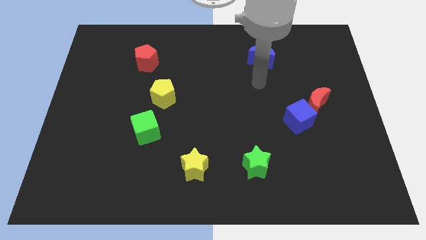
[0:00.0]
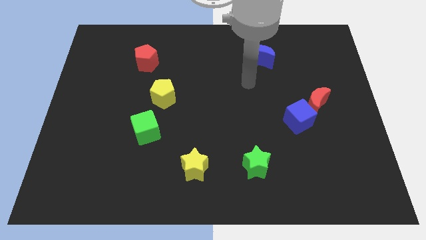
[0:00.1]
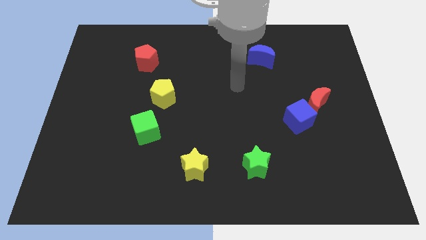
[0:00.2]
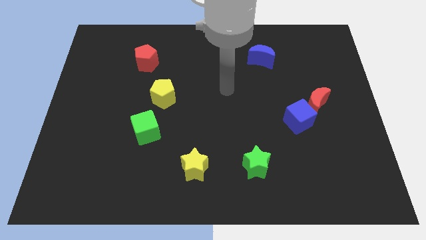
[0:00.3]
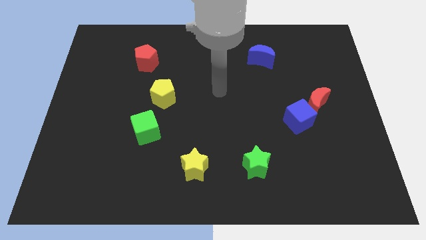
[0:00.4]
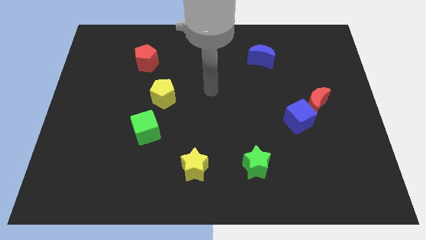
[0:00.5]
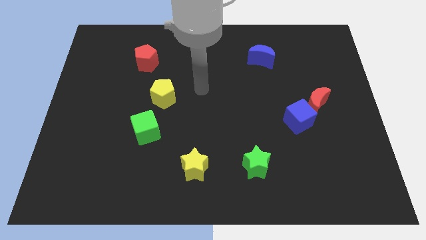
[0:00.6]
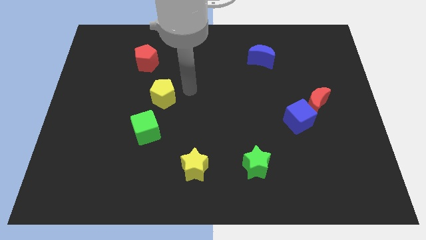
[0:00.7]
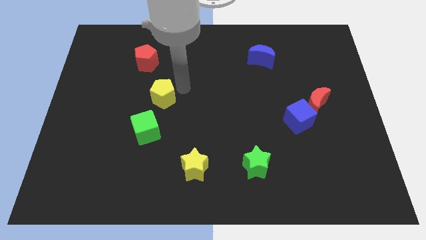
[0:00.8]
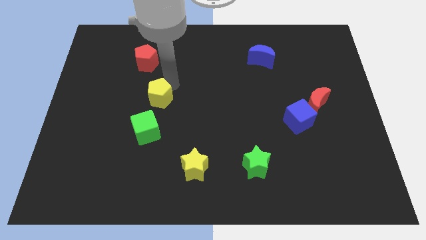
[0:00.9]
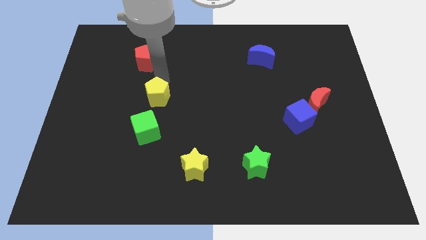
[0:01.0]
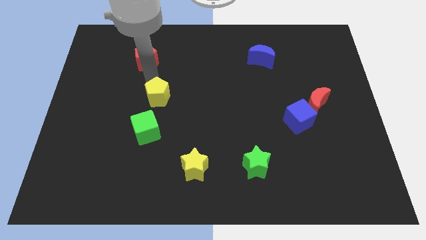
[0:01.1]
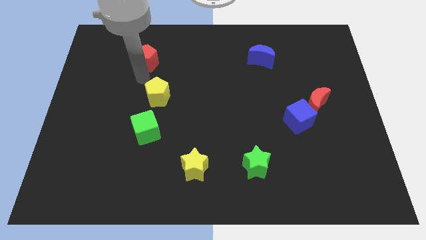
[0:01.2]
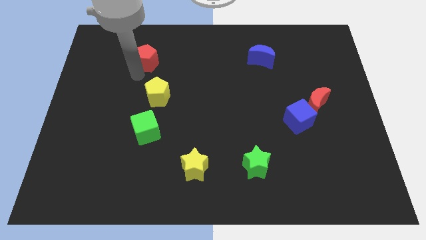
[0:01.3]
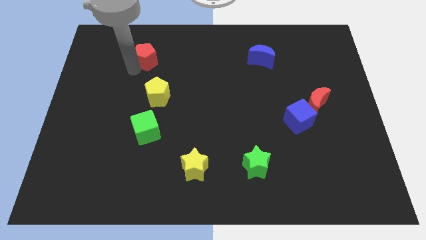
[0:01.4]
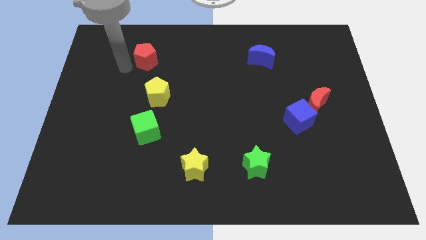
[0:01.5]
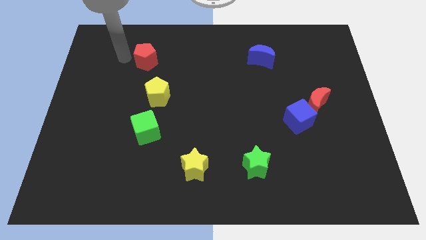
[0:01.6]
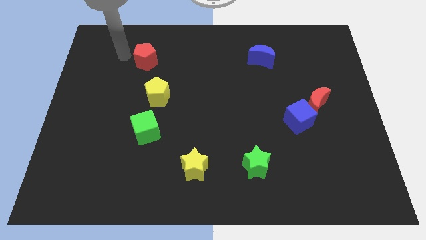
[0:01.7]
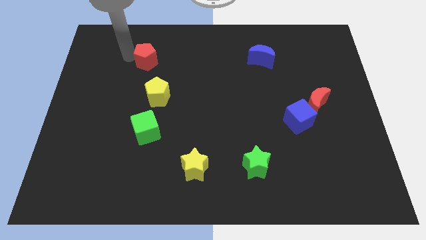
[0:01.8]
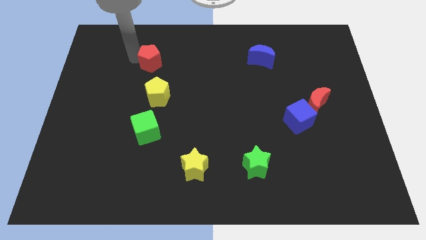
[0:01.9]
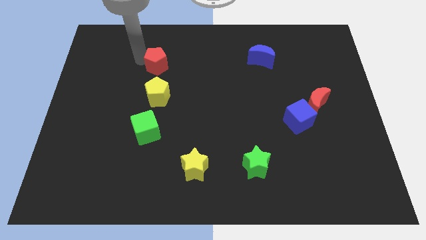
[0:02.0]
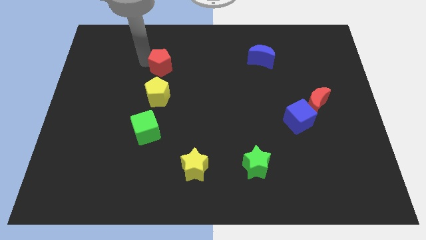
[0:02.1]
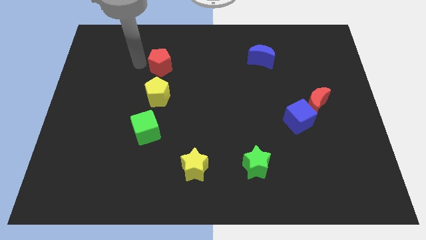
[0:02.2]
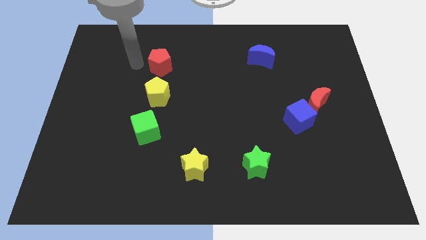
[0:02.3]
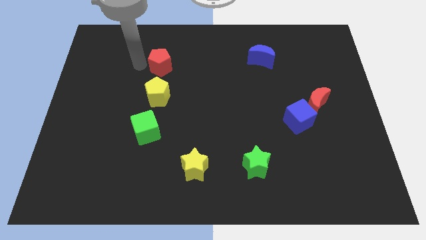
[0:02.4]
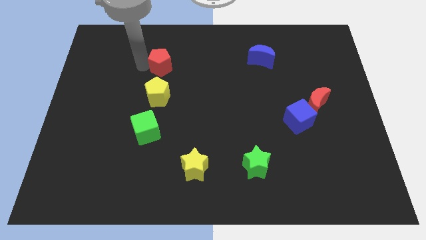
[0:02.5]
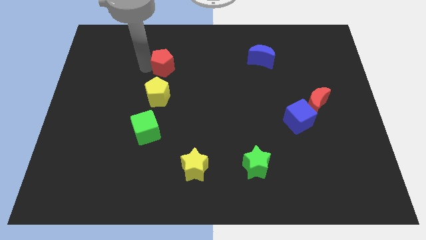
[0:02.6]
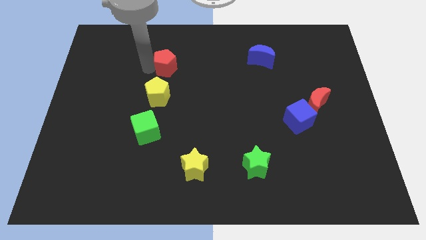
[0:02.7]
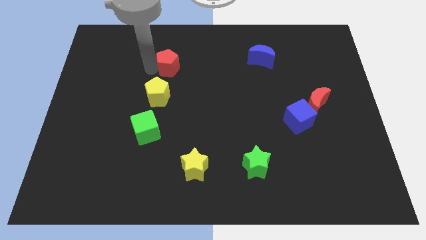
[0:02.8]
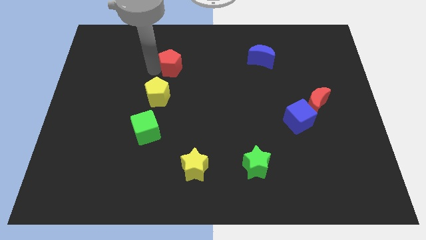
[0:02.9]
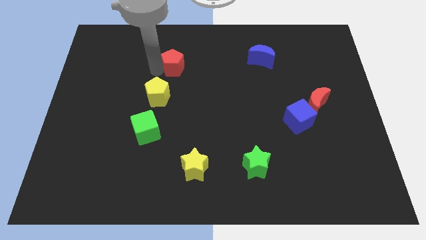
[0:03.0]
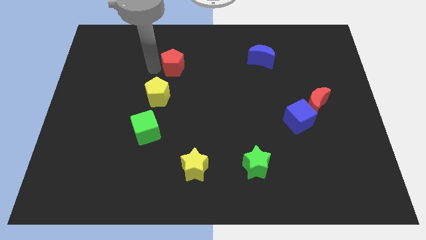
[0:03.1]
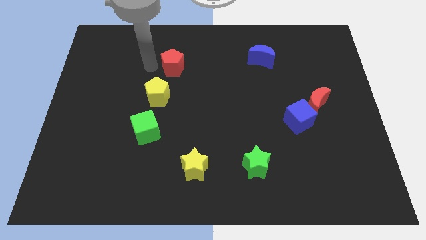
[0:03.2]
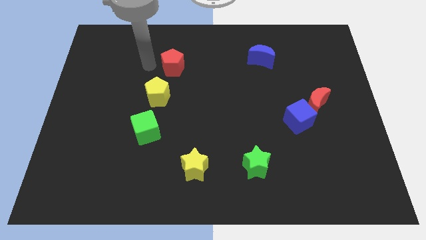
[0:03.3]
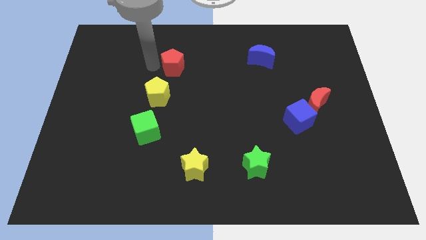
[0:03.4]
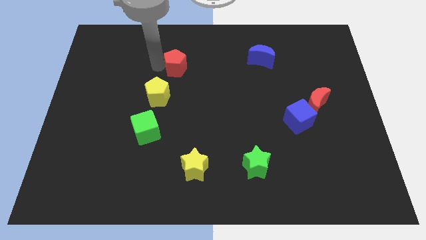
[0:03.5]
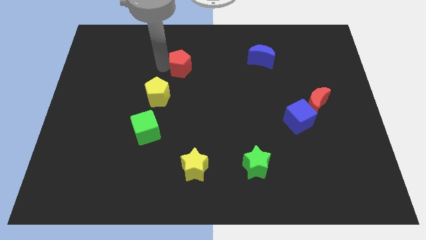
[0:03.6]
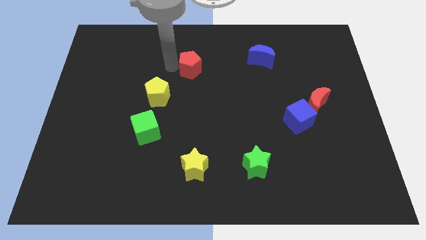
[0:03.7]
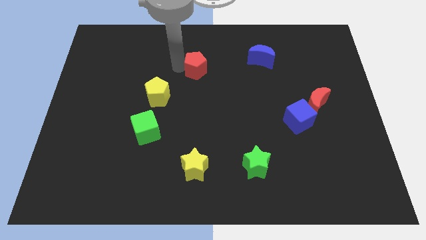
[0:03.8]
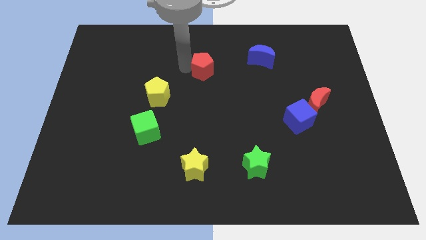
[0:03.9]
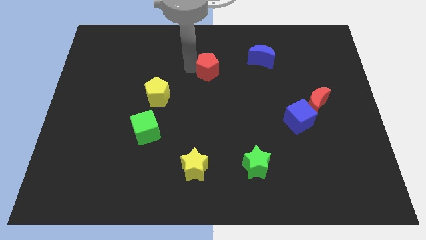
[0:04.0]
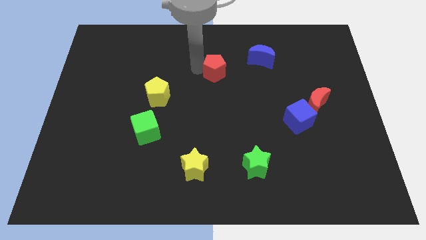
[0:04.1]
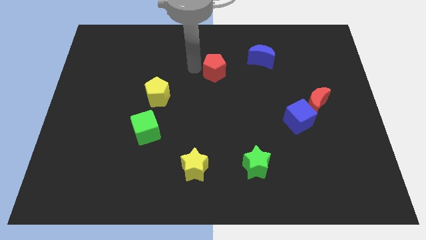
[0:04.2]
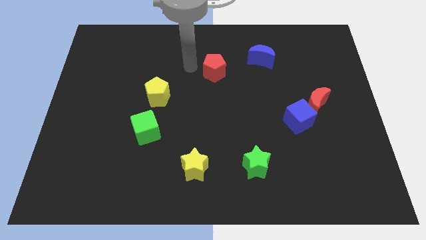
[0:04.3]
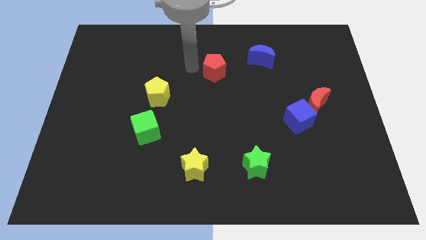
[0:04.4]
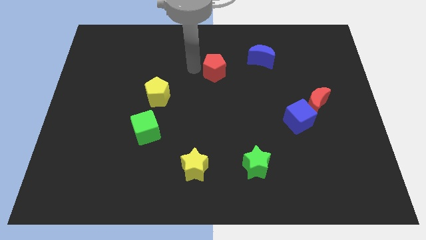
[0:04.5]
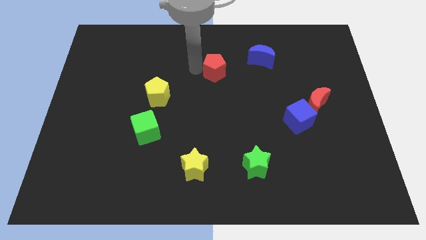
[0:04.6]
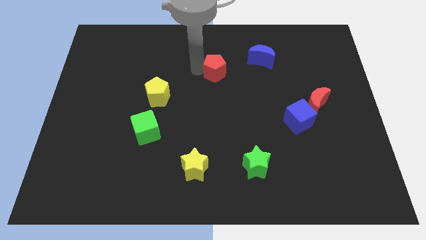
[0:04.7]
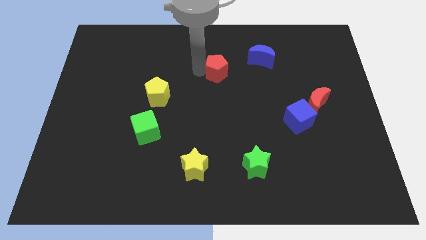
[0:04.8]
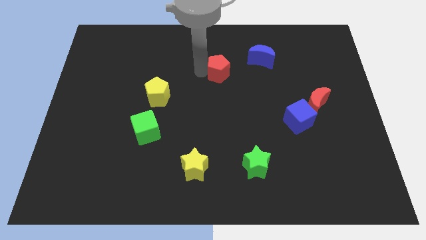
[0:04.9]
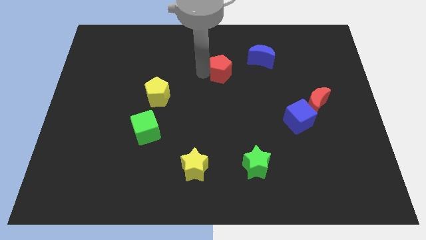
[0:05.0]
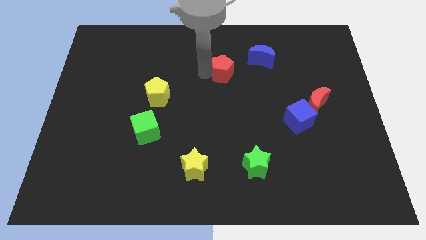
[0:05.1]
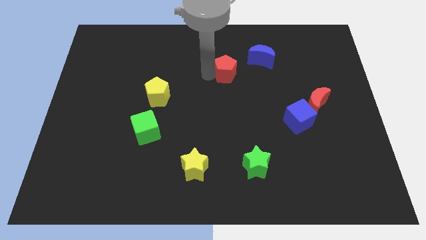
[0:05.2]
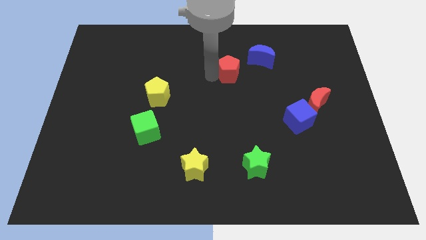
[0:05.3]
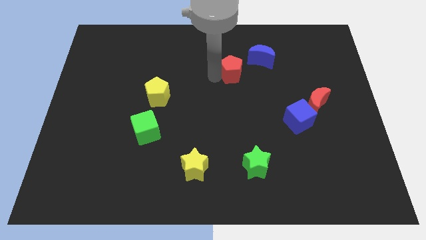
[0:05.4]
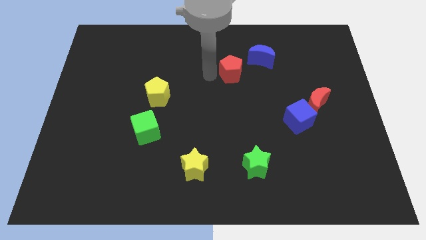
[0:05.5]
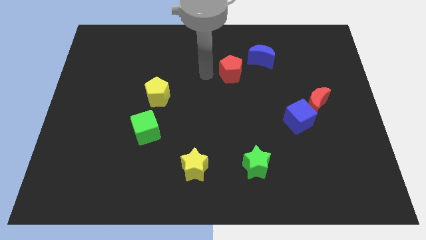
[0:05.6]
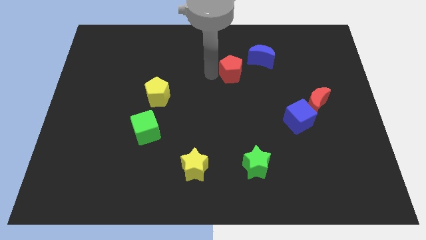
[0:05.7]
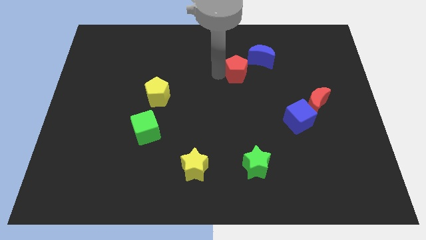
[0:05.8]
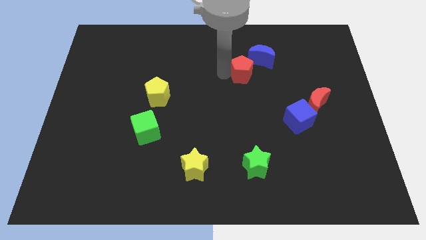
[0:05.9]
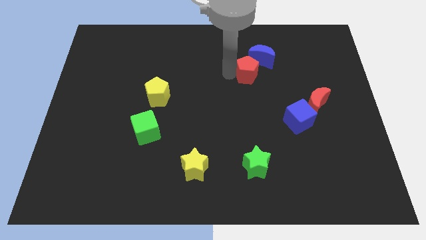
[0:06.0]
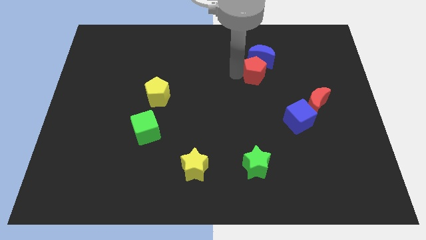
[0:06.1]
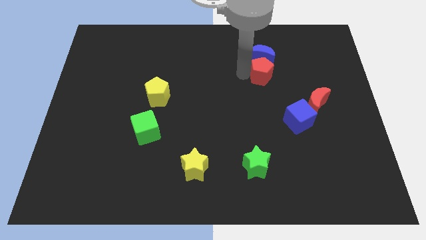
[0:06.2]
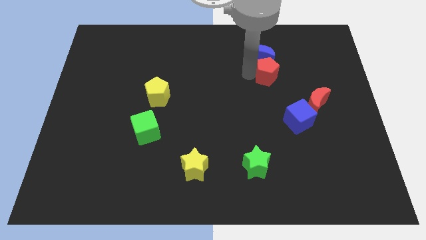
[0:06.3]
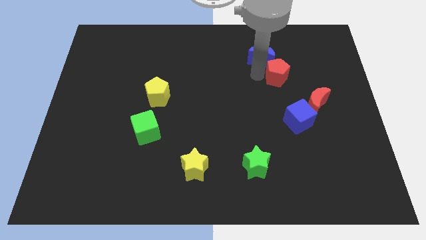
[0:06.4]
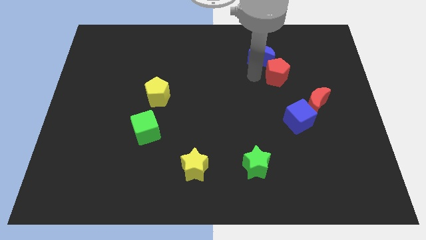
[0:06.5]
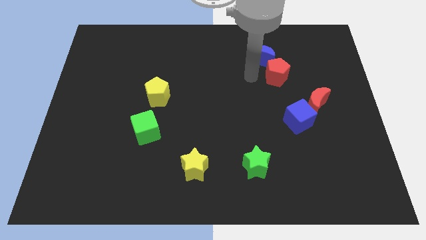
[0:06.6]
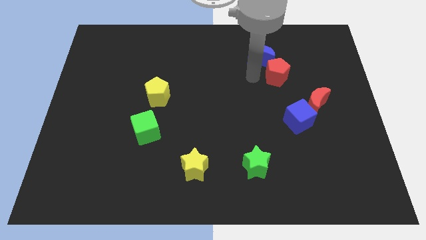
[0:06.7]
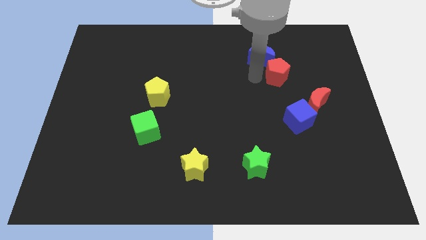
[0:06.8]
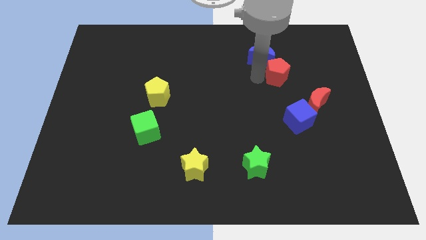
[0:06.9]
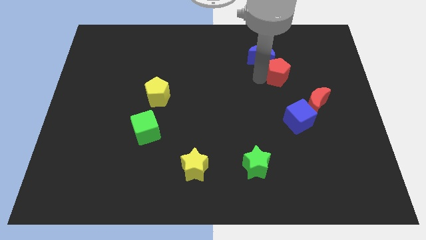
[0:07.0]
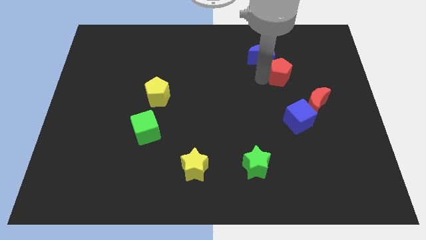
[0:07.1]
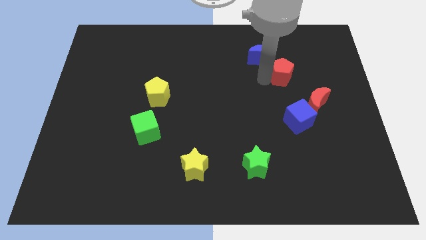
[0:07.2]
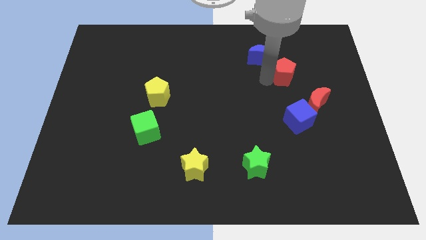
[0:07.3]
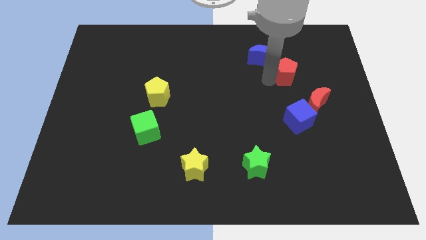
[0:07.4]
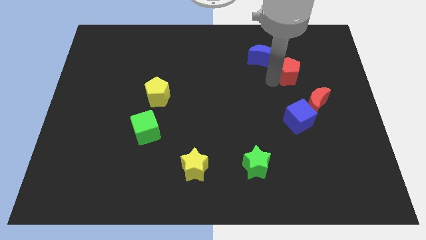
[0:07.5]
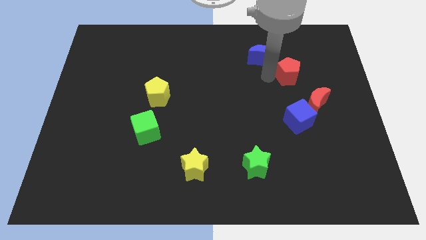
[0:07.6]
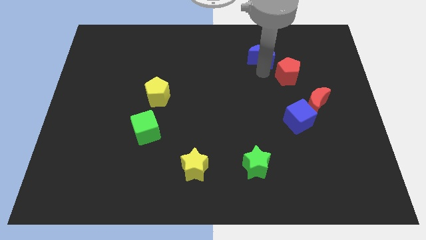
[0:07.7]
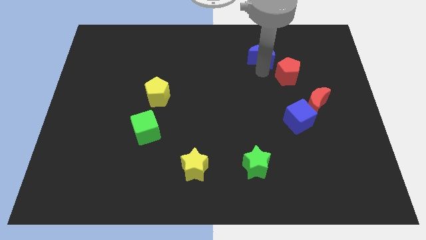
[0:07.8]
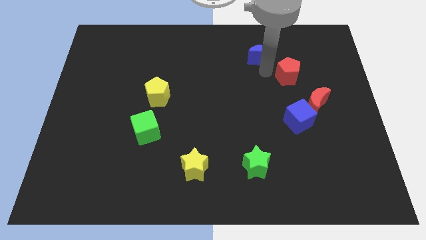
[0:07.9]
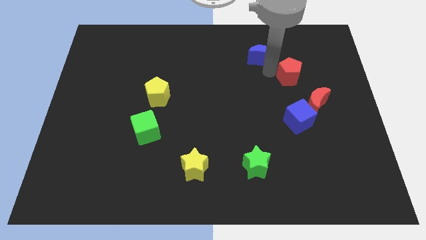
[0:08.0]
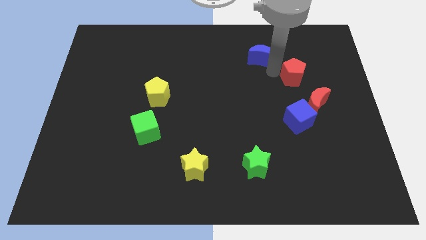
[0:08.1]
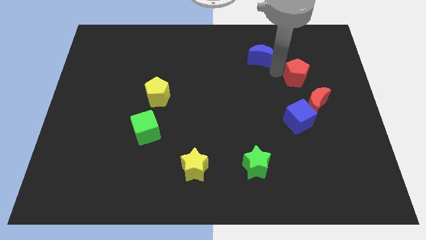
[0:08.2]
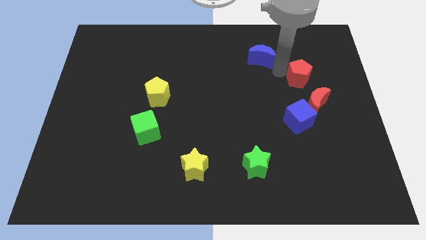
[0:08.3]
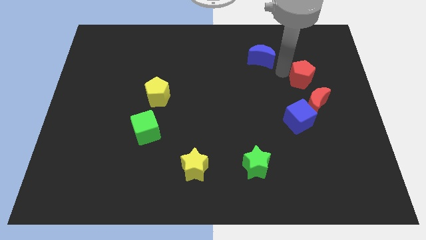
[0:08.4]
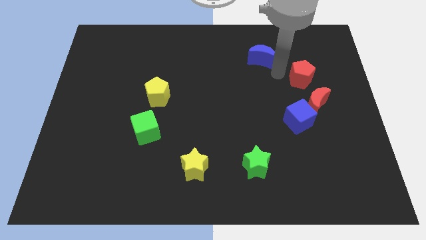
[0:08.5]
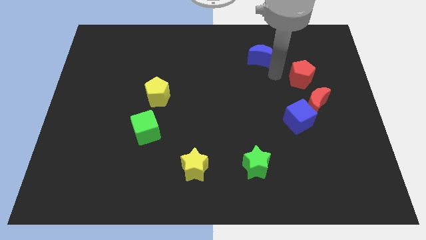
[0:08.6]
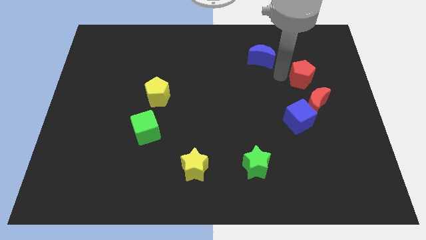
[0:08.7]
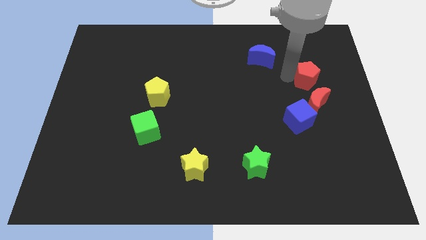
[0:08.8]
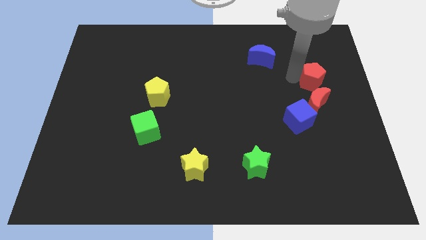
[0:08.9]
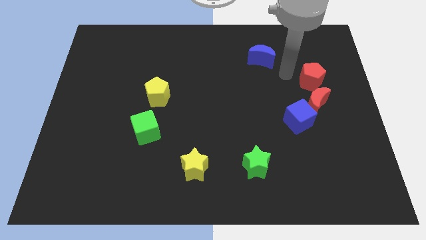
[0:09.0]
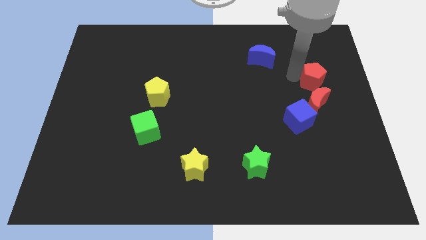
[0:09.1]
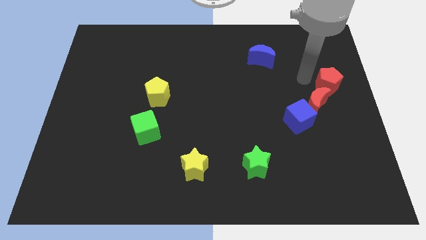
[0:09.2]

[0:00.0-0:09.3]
move the red pentagon to the right side
